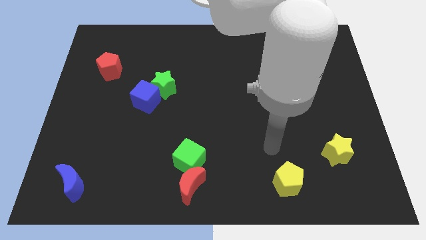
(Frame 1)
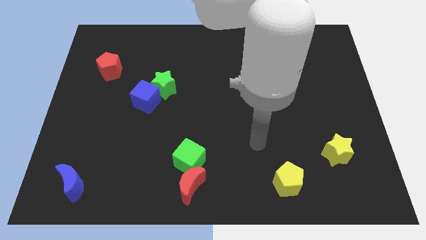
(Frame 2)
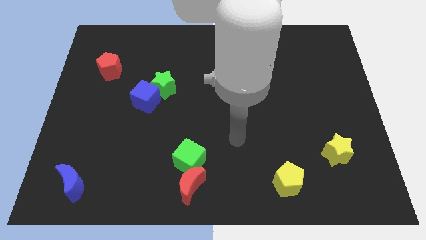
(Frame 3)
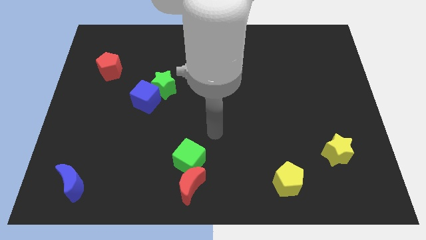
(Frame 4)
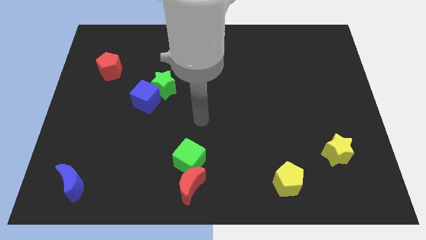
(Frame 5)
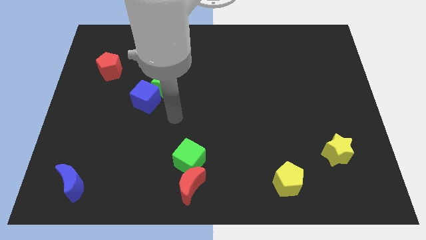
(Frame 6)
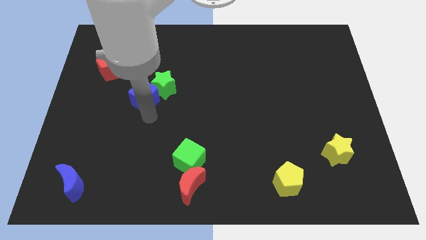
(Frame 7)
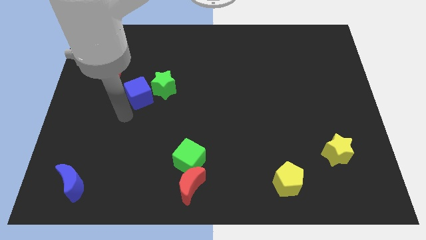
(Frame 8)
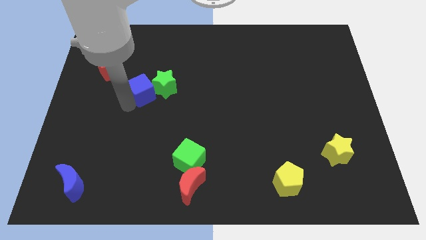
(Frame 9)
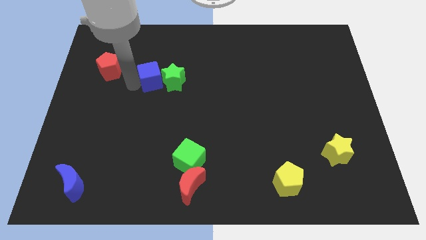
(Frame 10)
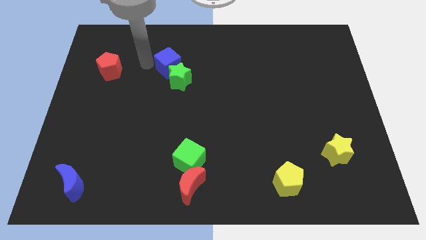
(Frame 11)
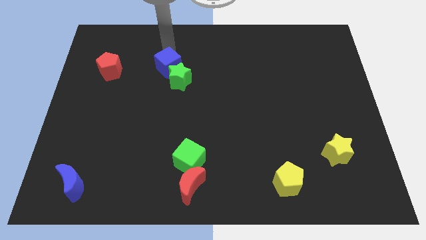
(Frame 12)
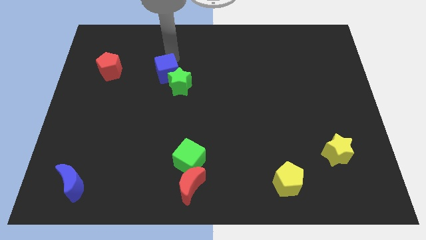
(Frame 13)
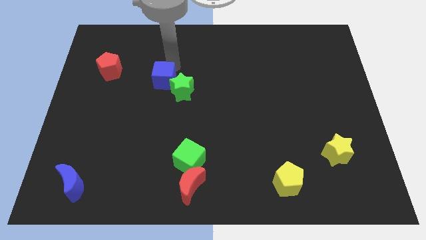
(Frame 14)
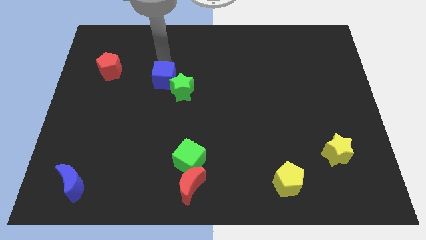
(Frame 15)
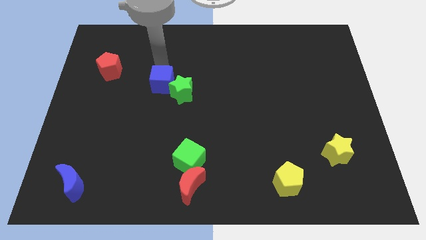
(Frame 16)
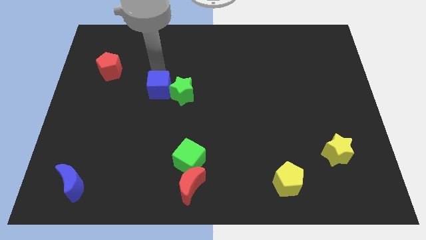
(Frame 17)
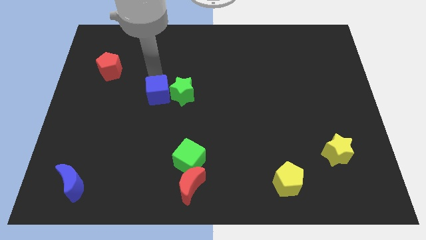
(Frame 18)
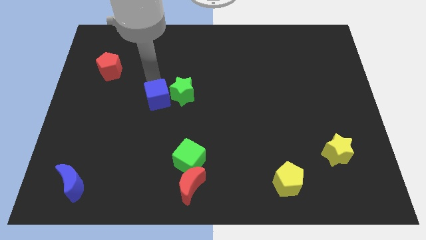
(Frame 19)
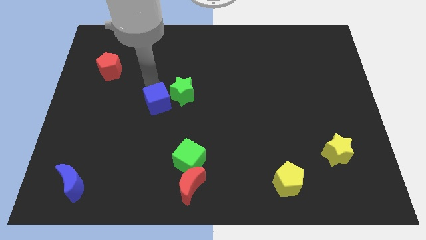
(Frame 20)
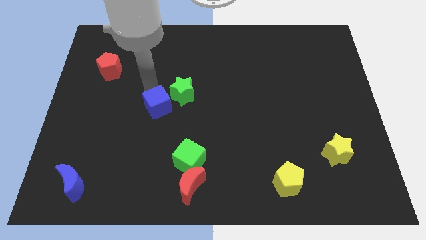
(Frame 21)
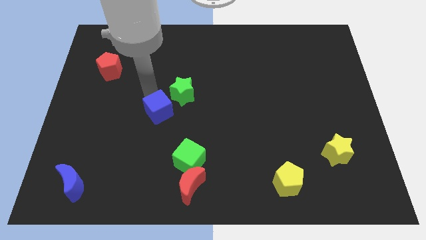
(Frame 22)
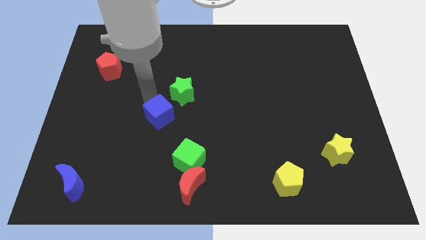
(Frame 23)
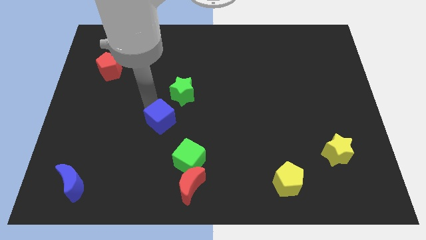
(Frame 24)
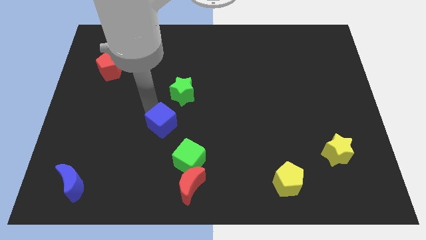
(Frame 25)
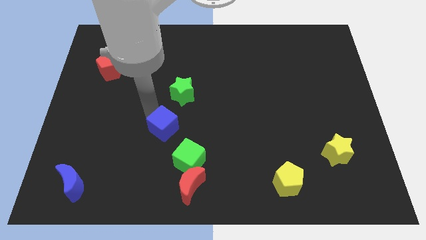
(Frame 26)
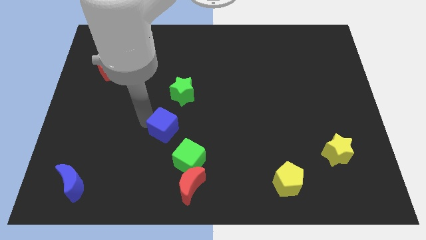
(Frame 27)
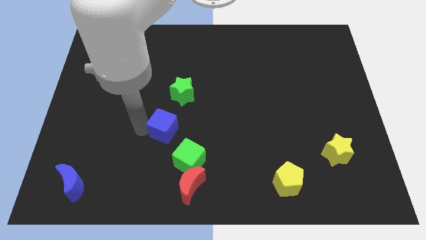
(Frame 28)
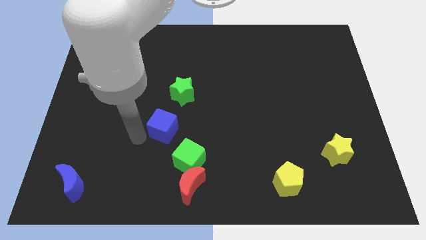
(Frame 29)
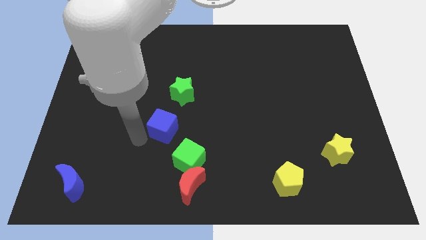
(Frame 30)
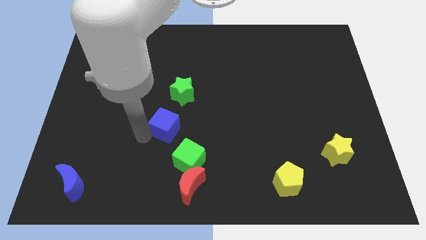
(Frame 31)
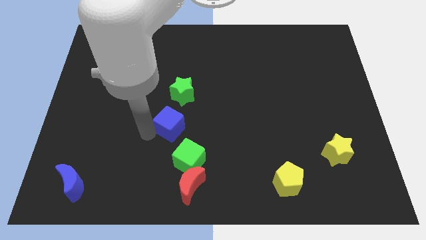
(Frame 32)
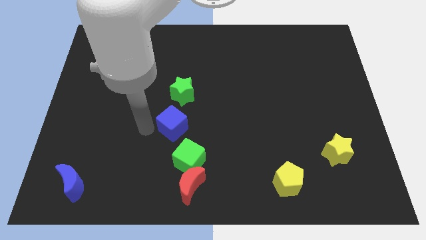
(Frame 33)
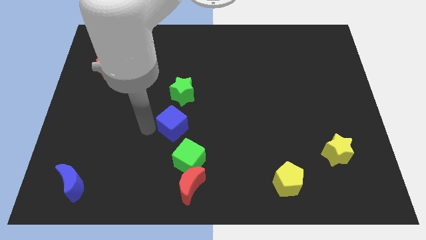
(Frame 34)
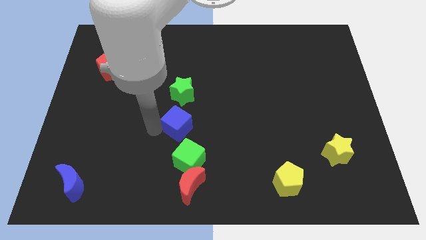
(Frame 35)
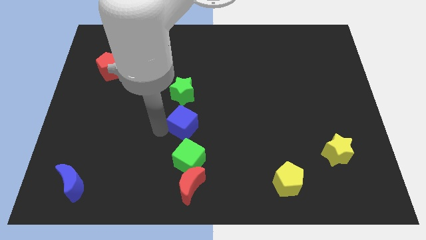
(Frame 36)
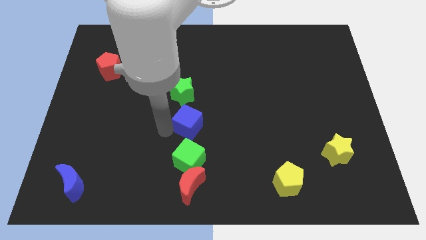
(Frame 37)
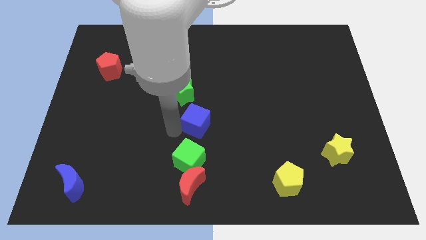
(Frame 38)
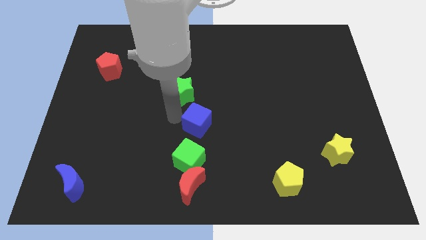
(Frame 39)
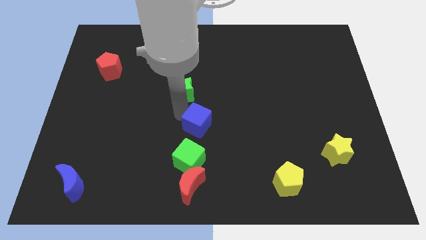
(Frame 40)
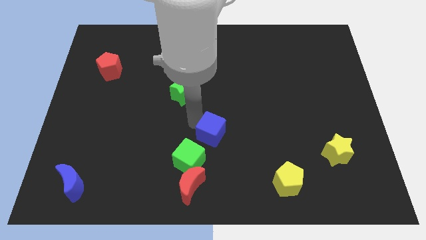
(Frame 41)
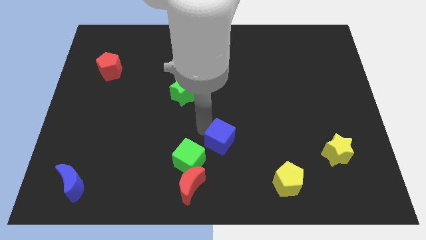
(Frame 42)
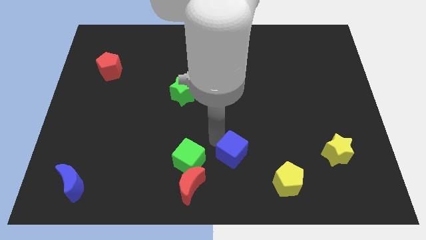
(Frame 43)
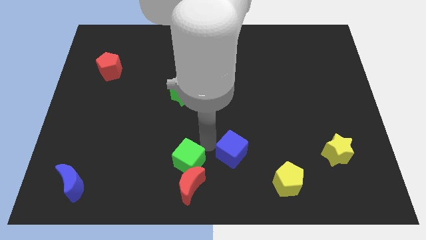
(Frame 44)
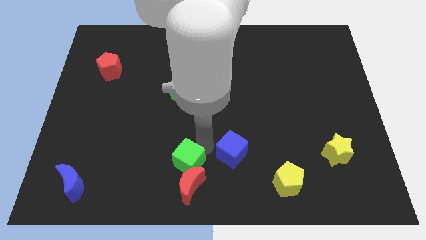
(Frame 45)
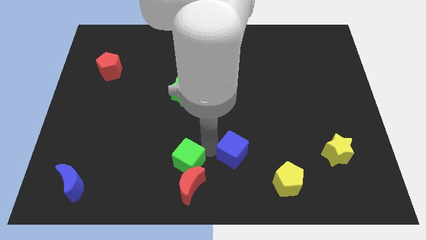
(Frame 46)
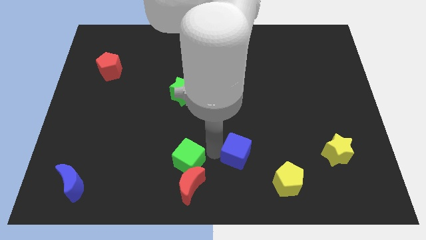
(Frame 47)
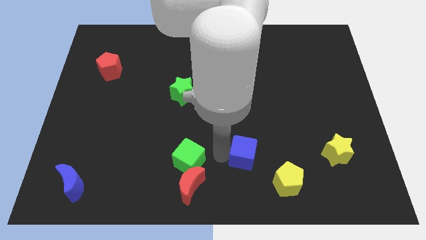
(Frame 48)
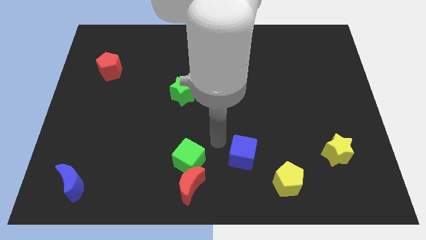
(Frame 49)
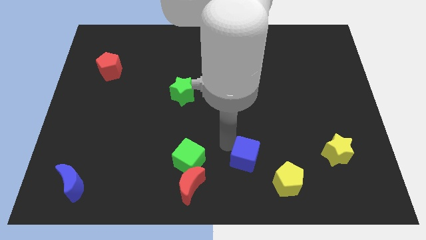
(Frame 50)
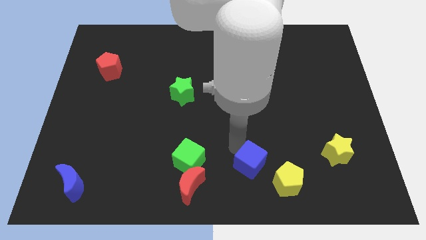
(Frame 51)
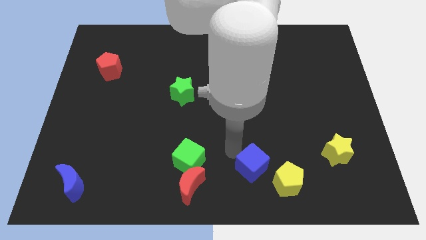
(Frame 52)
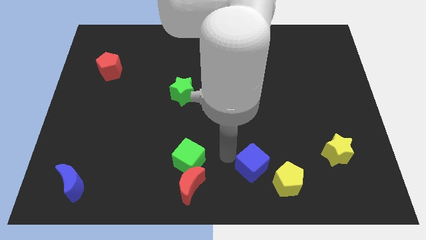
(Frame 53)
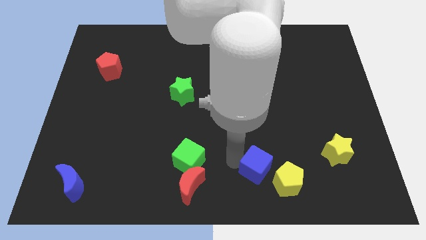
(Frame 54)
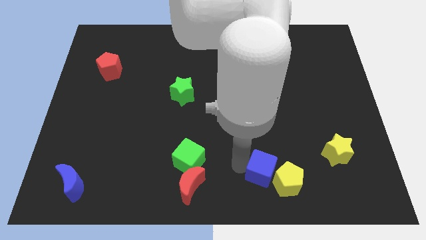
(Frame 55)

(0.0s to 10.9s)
push the blue cube towards the yellow pentagon

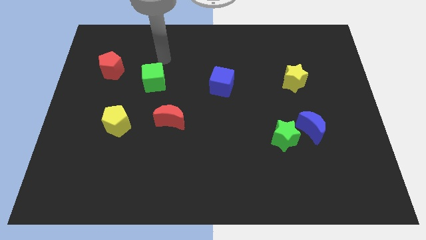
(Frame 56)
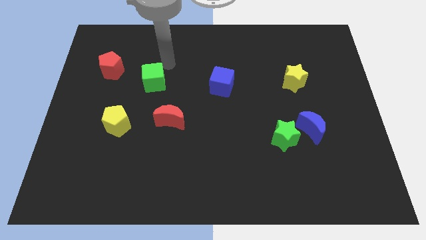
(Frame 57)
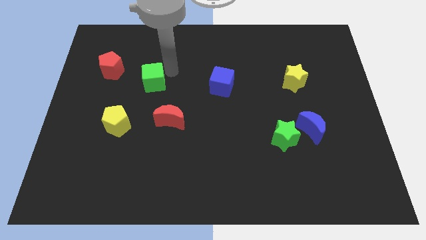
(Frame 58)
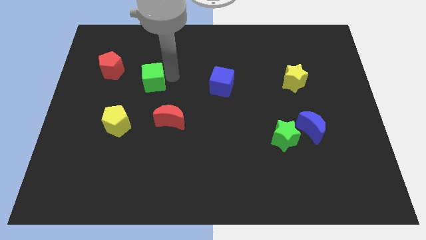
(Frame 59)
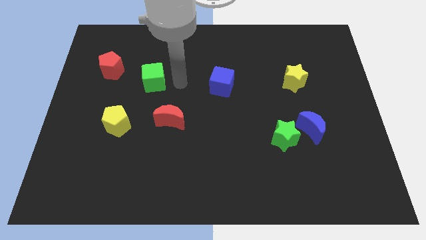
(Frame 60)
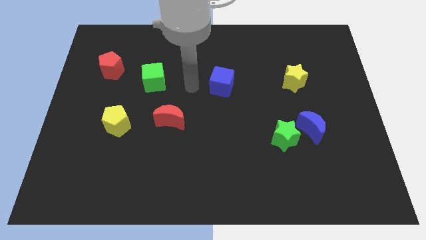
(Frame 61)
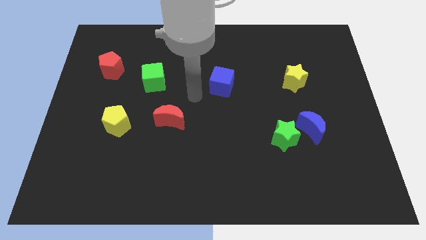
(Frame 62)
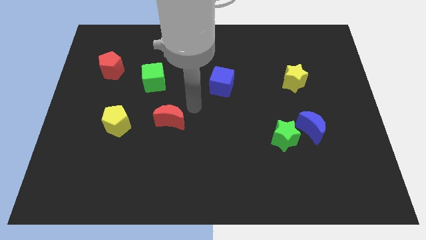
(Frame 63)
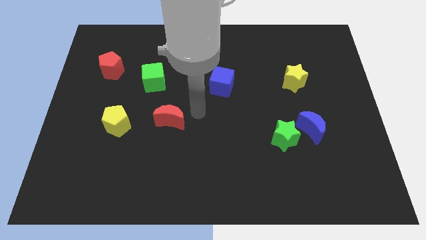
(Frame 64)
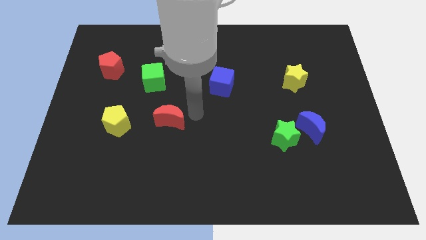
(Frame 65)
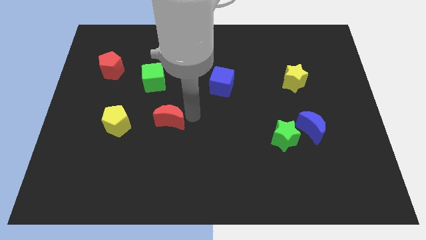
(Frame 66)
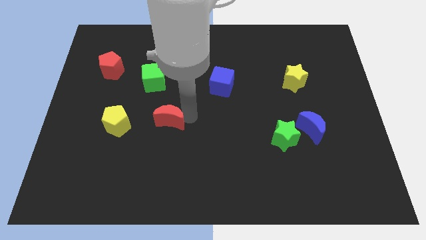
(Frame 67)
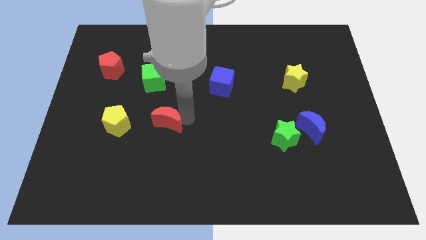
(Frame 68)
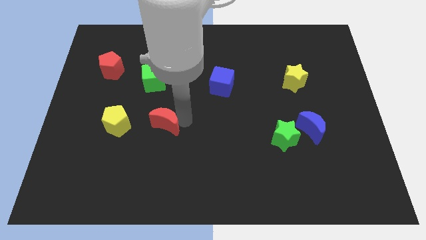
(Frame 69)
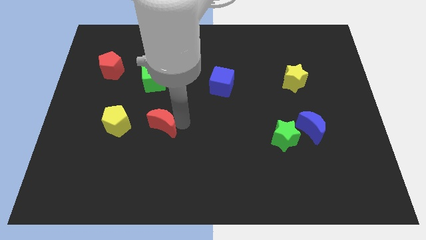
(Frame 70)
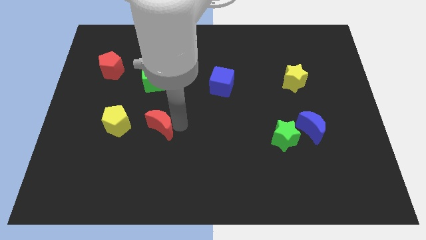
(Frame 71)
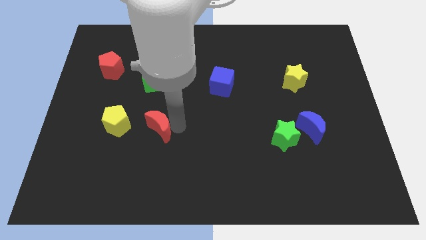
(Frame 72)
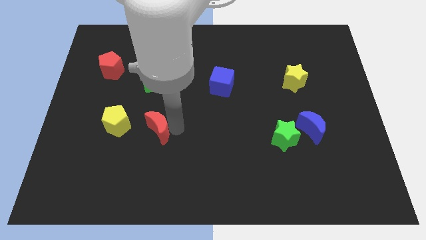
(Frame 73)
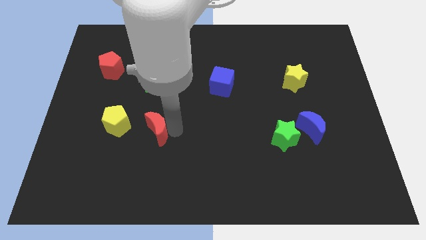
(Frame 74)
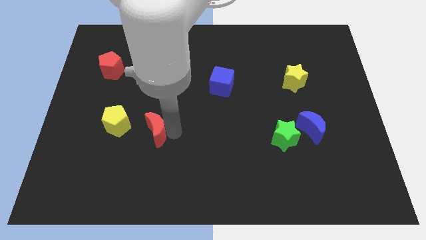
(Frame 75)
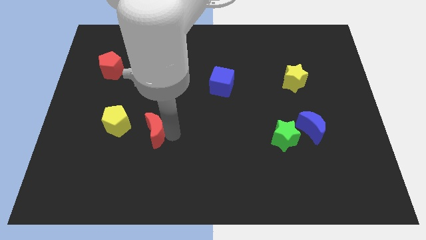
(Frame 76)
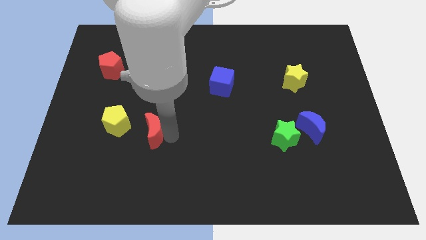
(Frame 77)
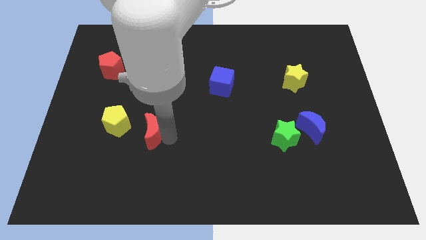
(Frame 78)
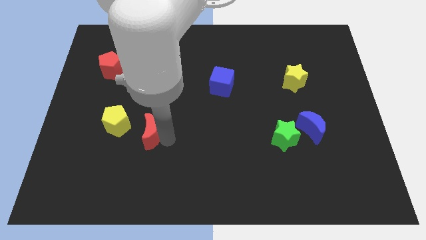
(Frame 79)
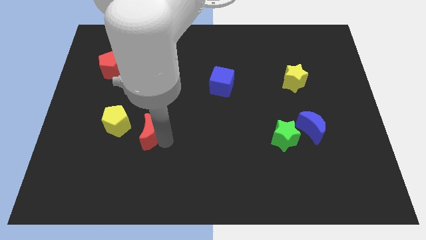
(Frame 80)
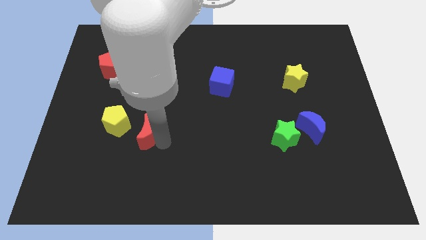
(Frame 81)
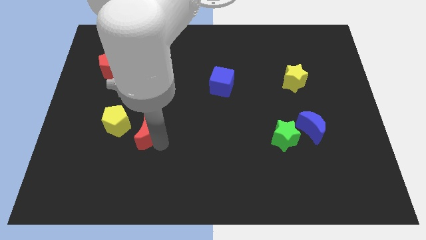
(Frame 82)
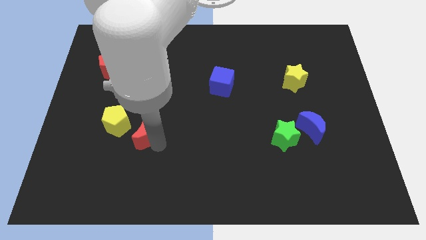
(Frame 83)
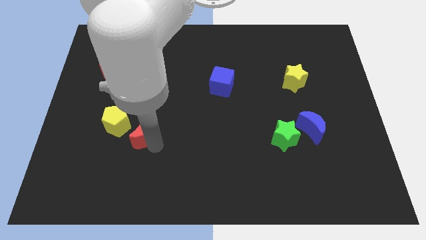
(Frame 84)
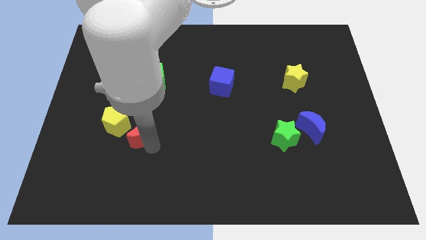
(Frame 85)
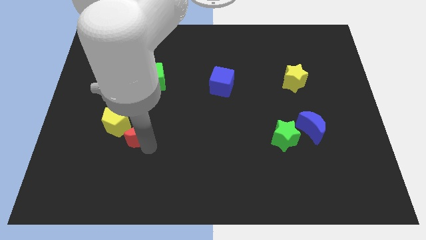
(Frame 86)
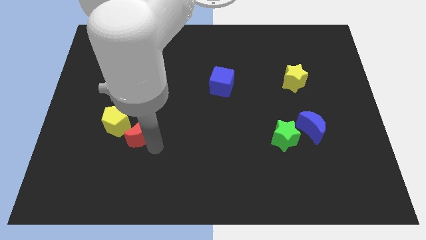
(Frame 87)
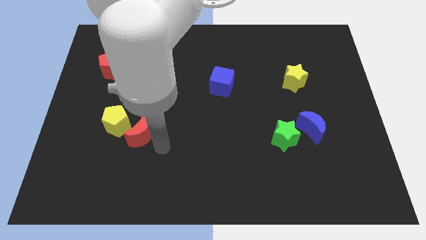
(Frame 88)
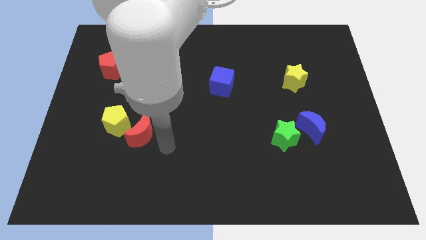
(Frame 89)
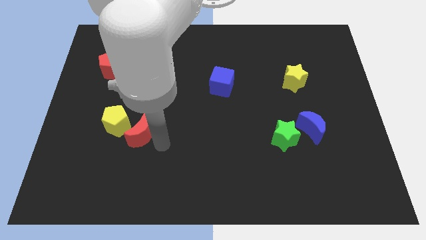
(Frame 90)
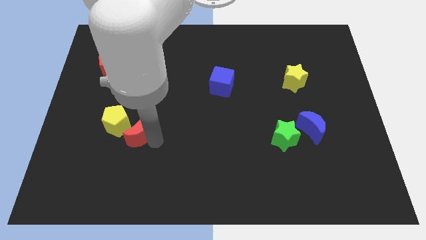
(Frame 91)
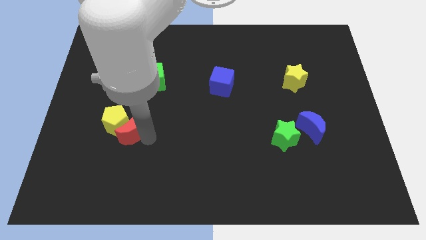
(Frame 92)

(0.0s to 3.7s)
move the red moon next to the yellow pentagon
